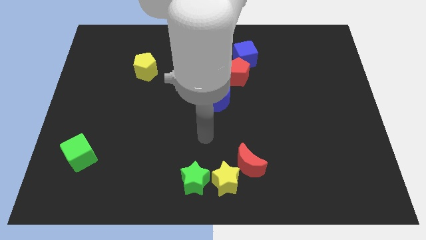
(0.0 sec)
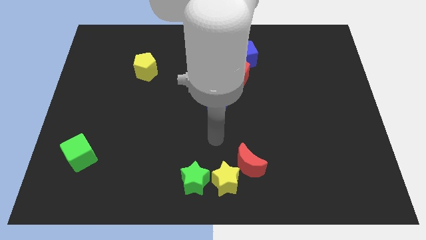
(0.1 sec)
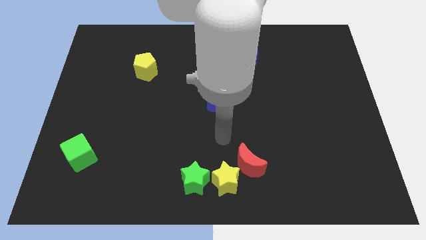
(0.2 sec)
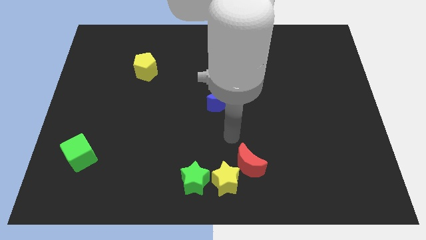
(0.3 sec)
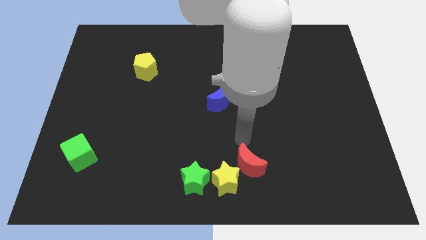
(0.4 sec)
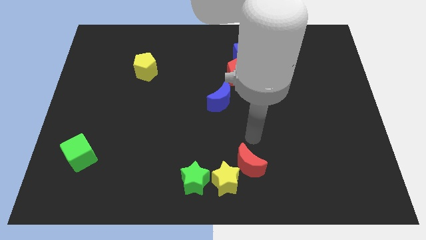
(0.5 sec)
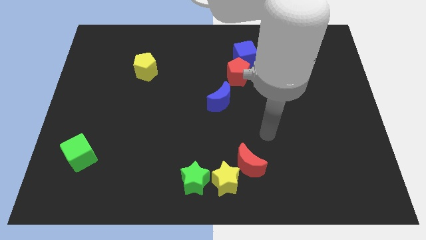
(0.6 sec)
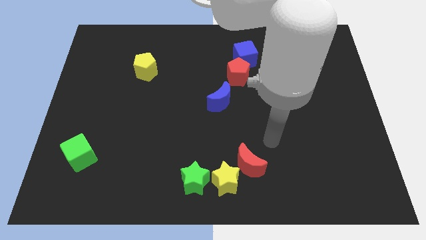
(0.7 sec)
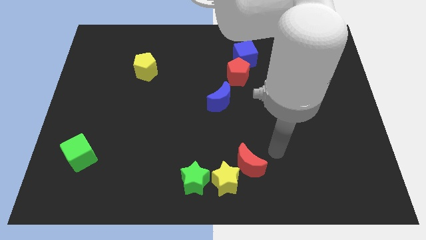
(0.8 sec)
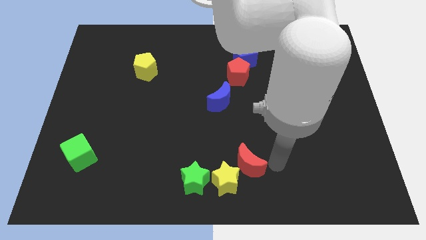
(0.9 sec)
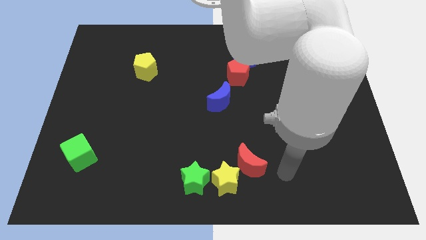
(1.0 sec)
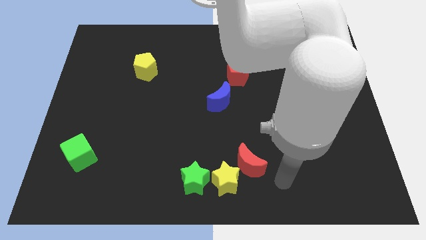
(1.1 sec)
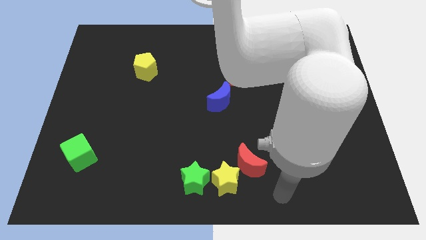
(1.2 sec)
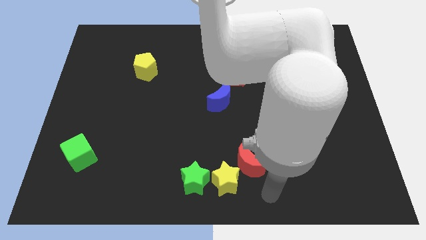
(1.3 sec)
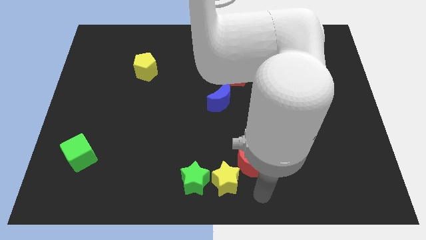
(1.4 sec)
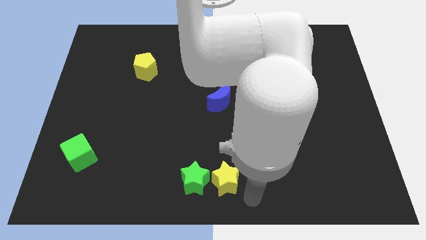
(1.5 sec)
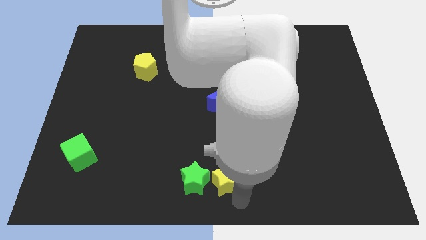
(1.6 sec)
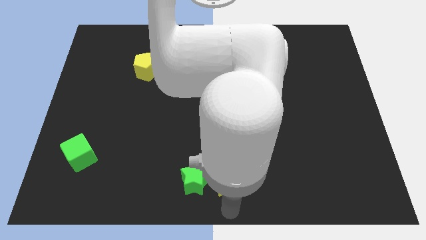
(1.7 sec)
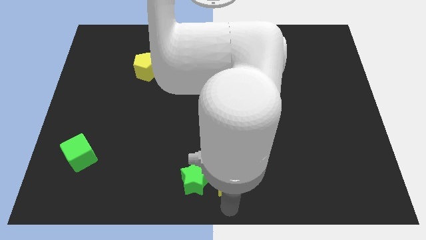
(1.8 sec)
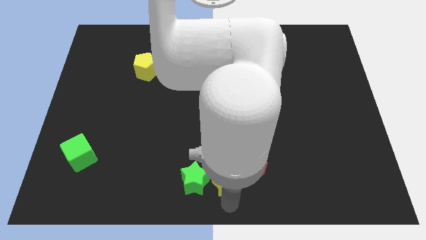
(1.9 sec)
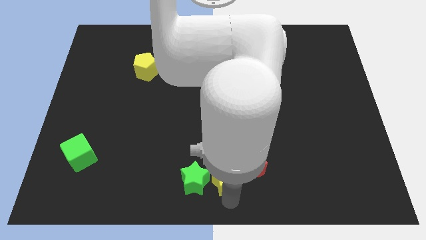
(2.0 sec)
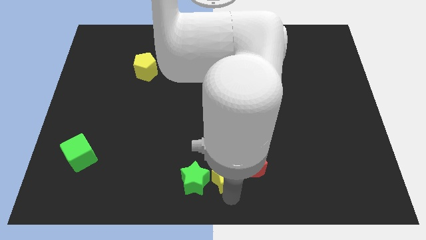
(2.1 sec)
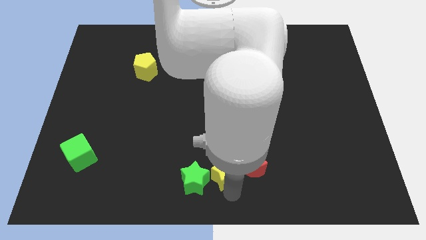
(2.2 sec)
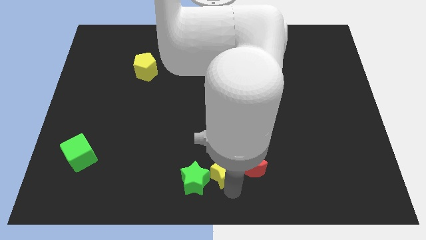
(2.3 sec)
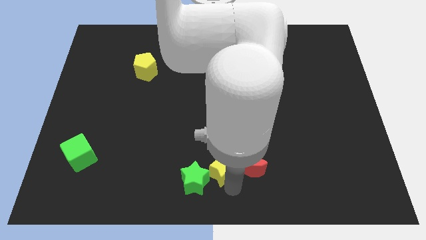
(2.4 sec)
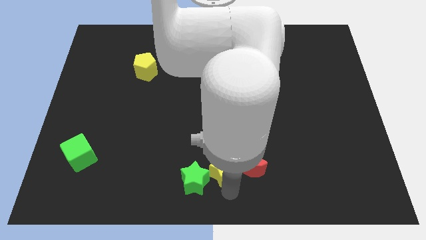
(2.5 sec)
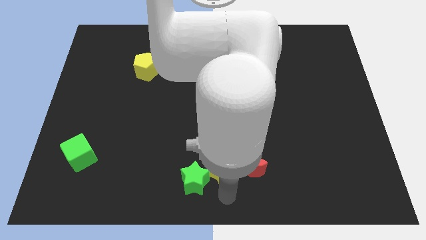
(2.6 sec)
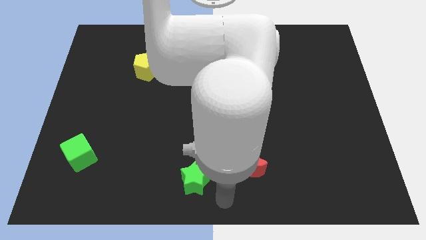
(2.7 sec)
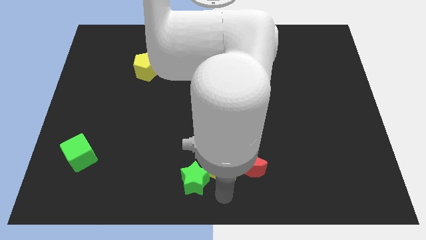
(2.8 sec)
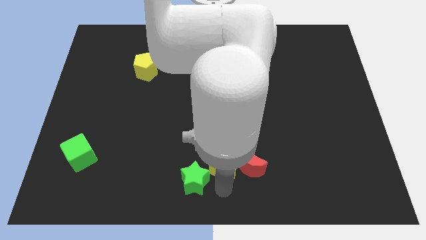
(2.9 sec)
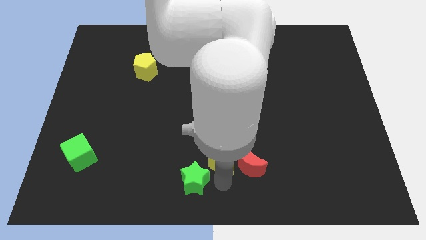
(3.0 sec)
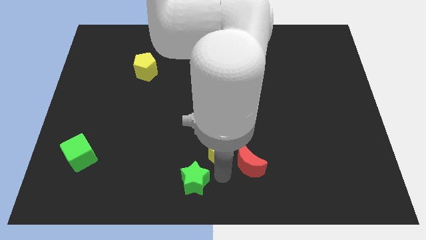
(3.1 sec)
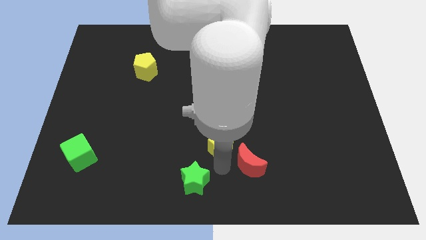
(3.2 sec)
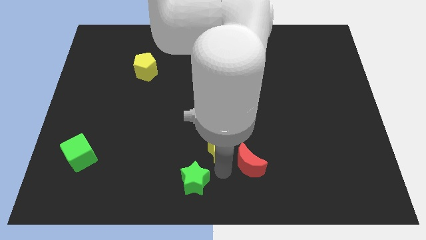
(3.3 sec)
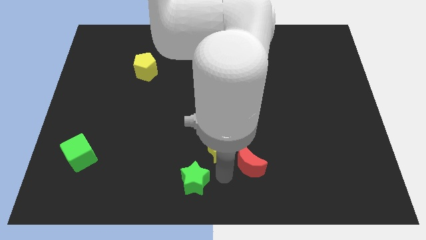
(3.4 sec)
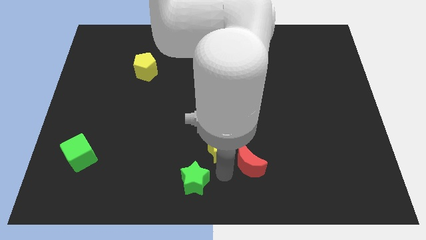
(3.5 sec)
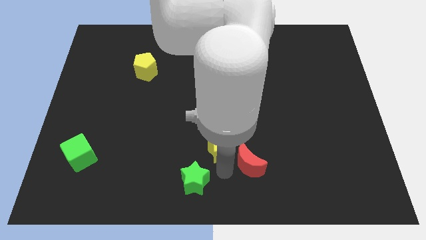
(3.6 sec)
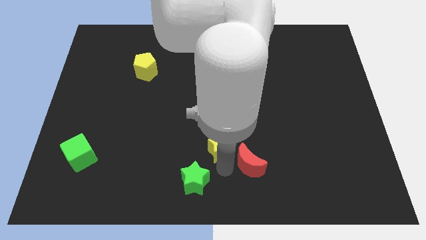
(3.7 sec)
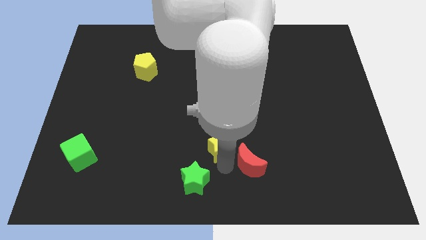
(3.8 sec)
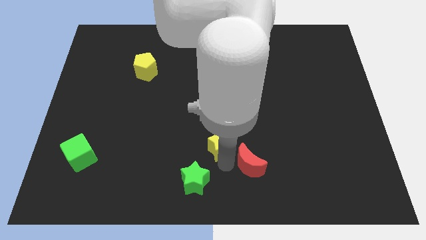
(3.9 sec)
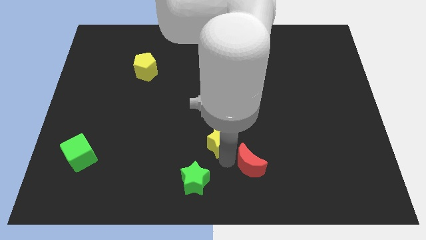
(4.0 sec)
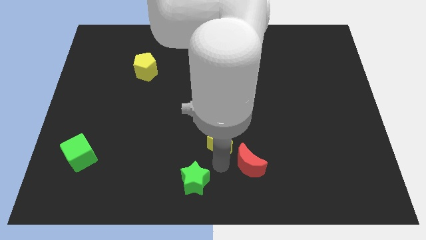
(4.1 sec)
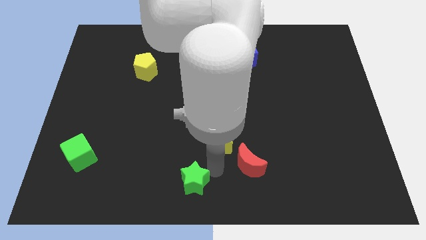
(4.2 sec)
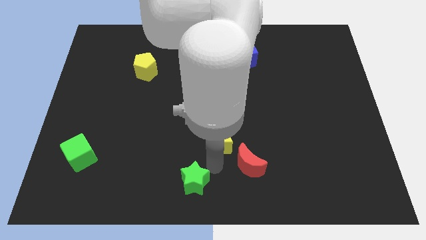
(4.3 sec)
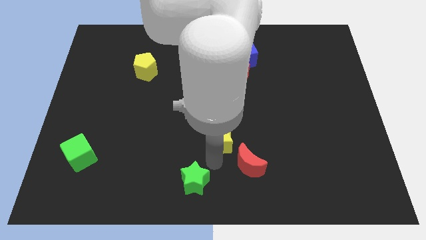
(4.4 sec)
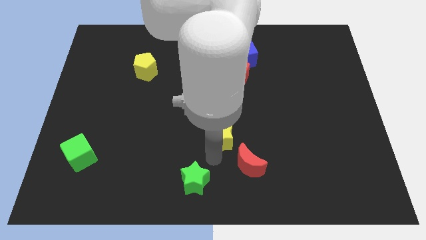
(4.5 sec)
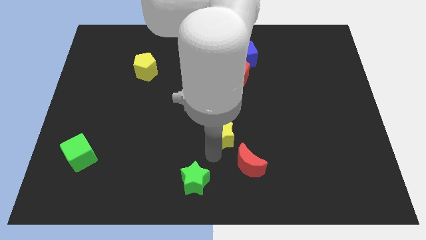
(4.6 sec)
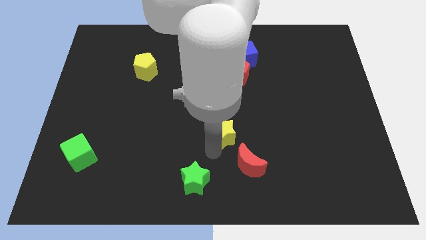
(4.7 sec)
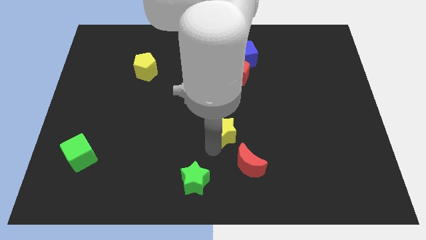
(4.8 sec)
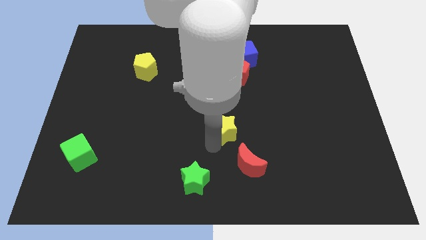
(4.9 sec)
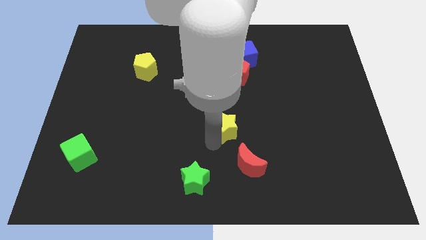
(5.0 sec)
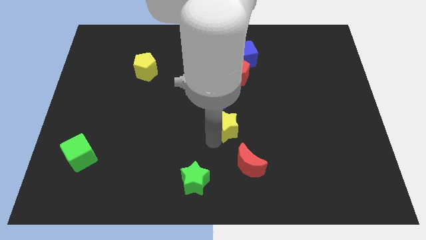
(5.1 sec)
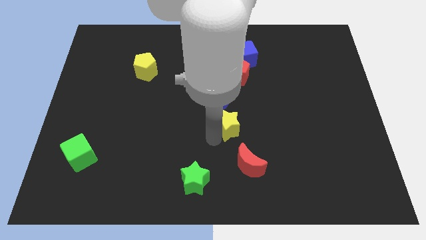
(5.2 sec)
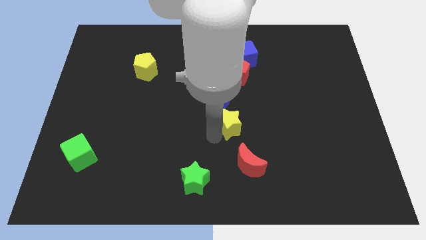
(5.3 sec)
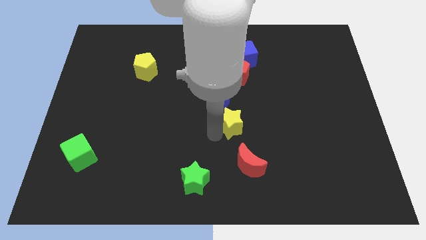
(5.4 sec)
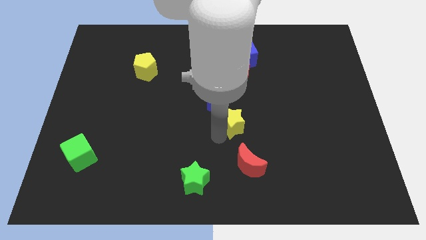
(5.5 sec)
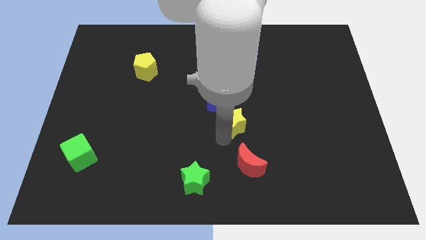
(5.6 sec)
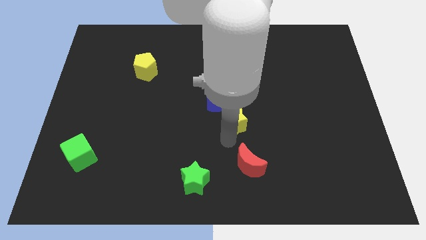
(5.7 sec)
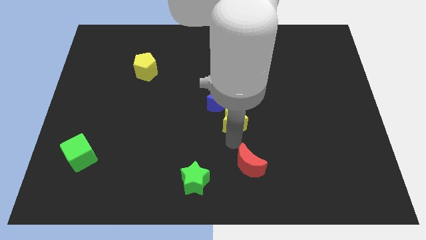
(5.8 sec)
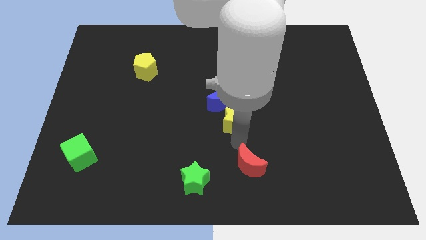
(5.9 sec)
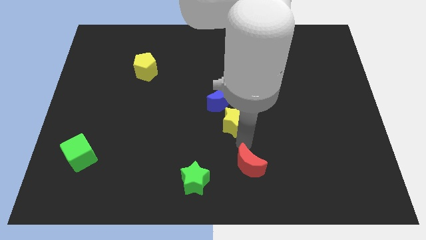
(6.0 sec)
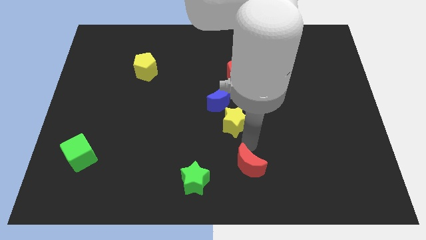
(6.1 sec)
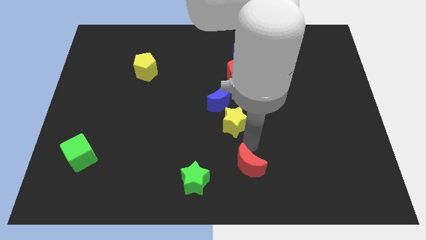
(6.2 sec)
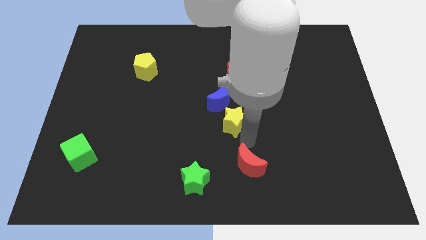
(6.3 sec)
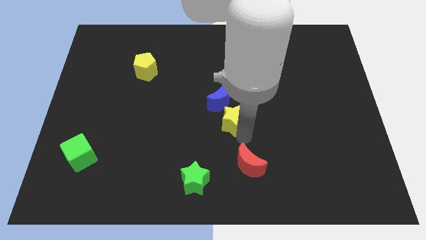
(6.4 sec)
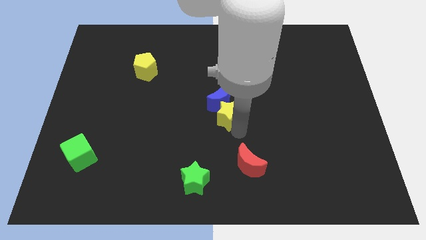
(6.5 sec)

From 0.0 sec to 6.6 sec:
move the yellow star towards the blue moon

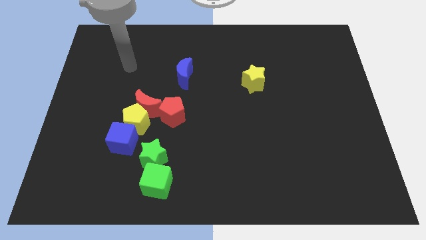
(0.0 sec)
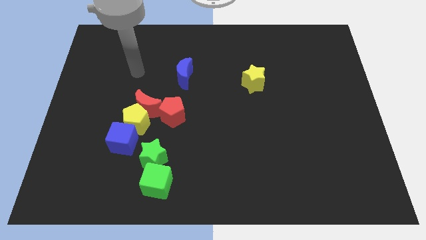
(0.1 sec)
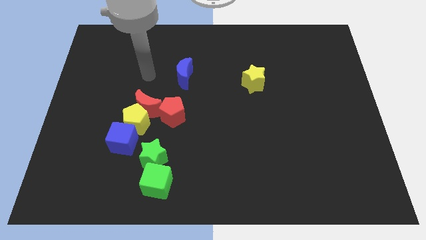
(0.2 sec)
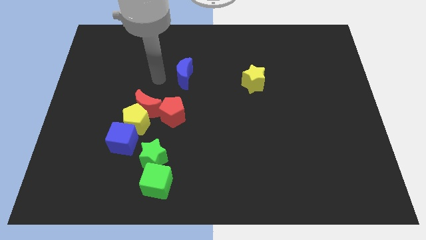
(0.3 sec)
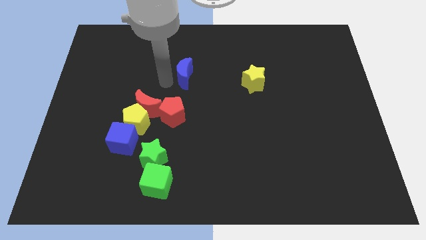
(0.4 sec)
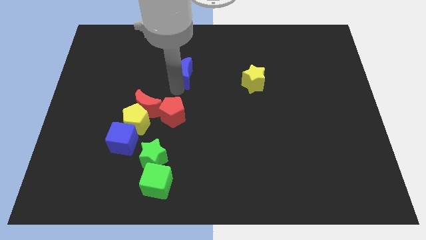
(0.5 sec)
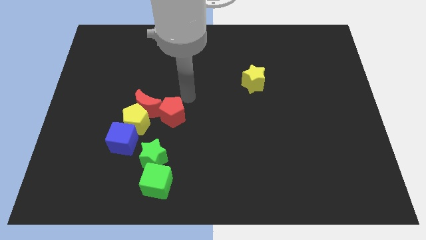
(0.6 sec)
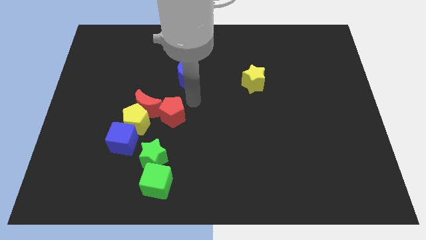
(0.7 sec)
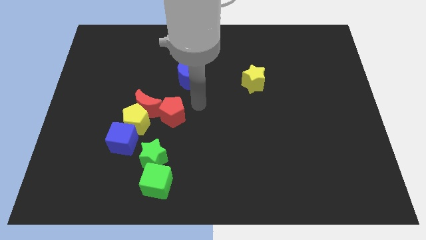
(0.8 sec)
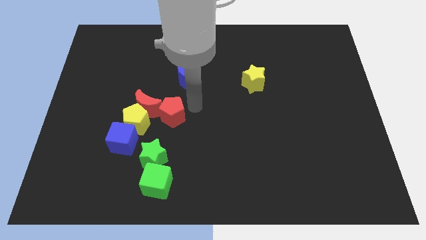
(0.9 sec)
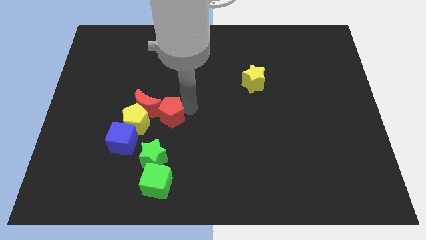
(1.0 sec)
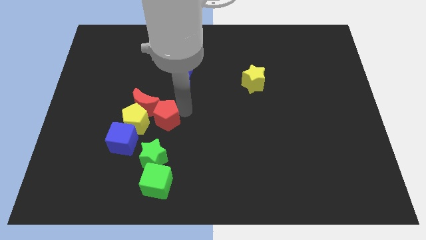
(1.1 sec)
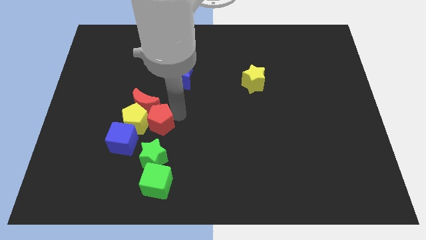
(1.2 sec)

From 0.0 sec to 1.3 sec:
put the red pentagon to the yellow pentagon
